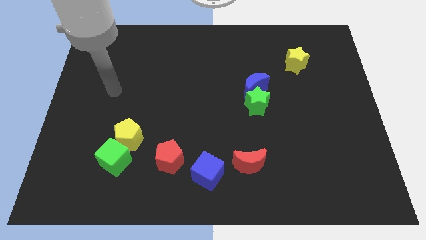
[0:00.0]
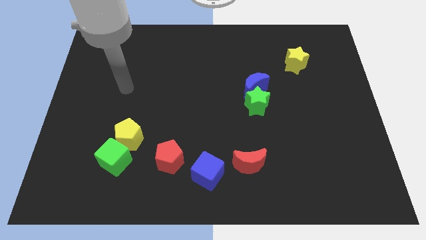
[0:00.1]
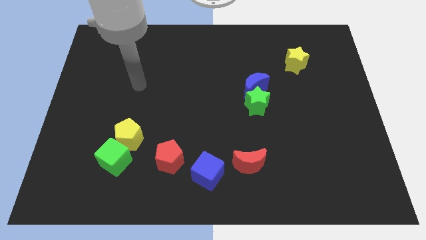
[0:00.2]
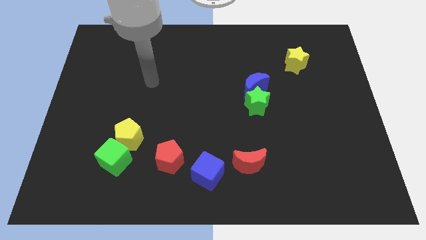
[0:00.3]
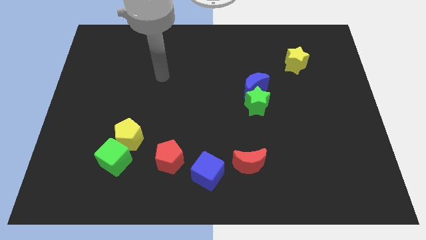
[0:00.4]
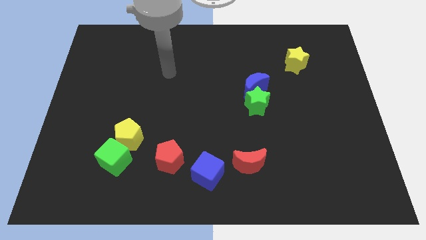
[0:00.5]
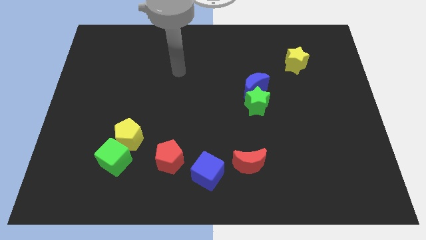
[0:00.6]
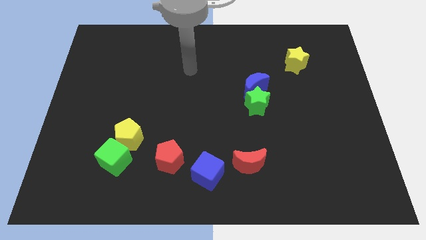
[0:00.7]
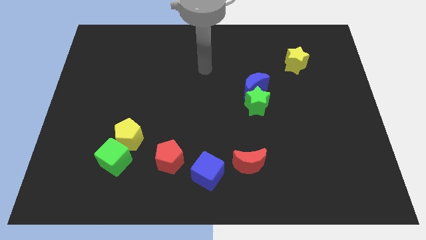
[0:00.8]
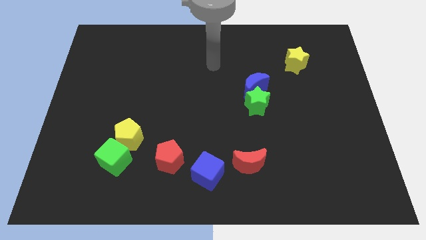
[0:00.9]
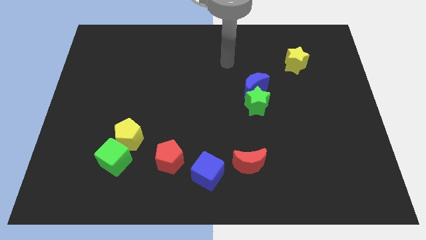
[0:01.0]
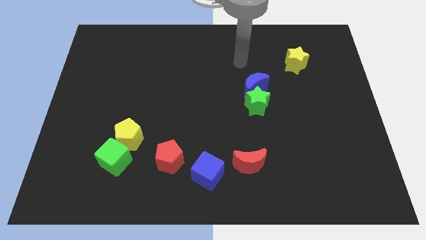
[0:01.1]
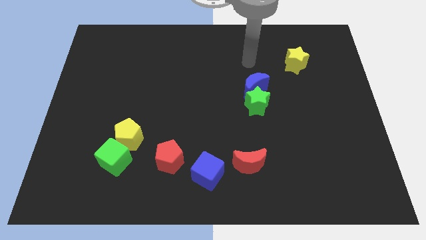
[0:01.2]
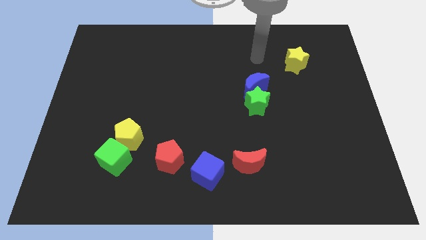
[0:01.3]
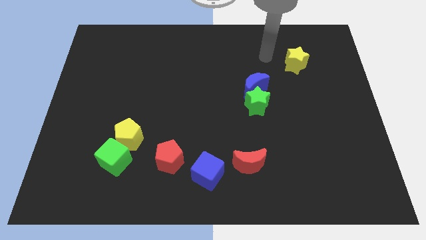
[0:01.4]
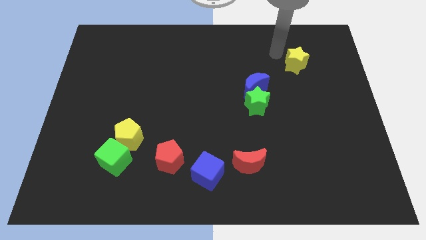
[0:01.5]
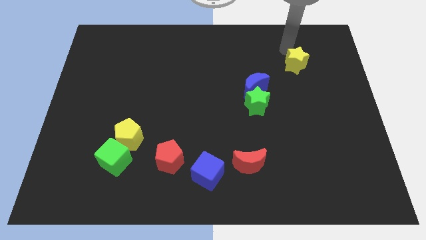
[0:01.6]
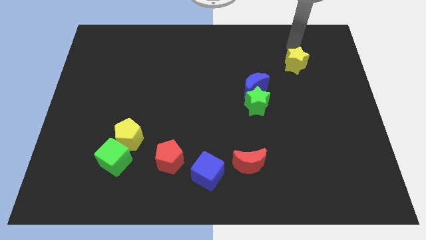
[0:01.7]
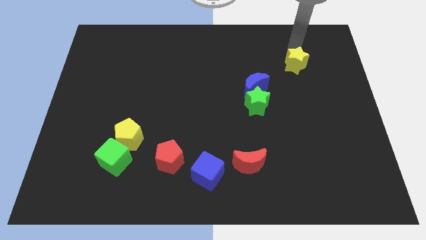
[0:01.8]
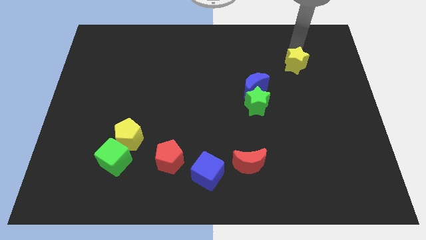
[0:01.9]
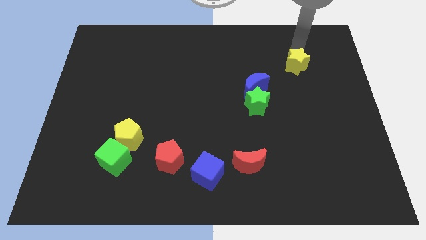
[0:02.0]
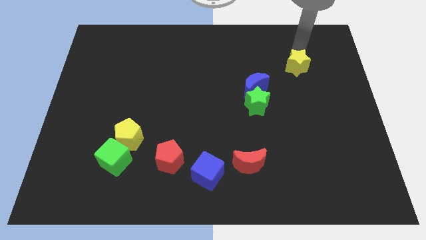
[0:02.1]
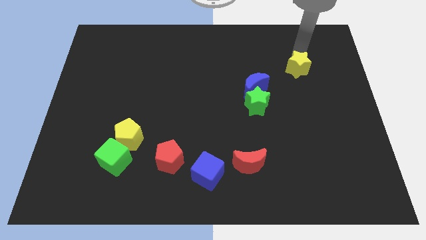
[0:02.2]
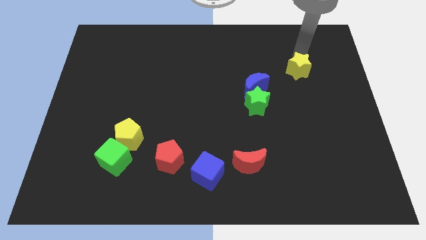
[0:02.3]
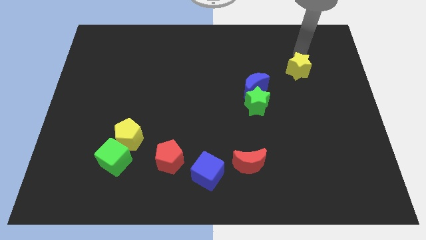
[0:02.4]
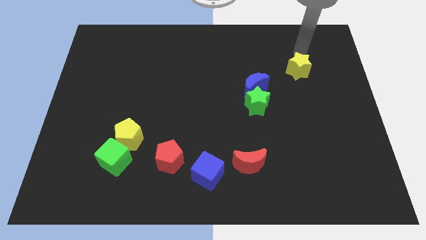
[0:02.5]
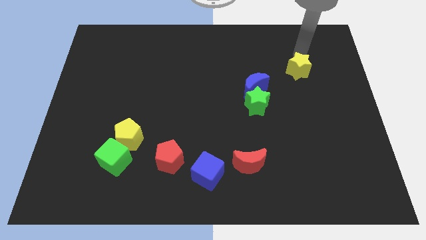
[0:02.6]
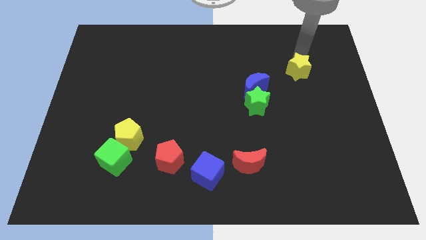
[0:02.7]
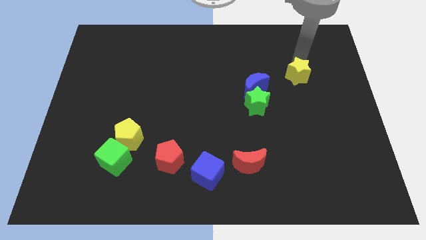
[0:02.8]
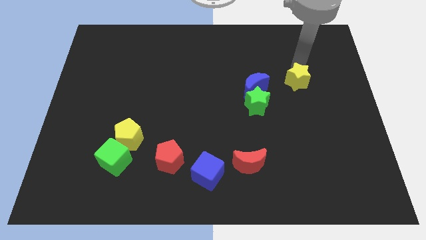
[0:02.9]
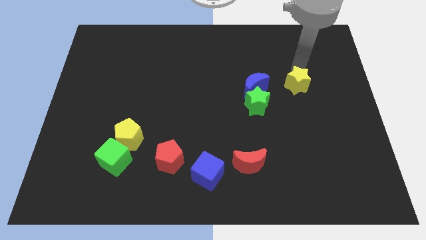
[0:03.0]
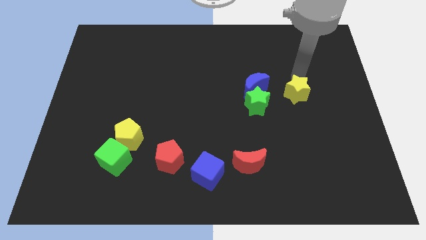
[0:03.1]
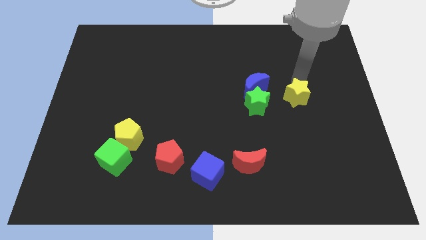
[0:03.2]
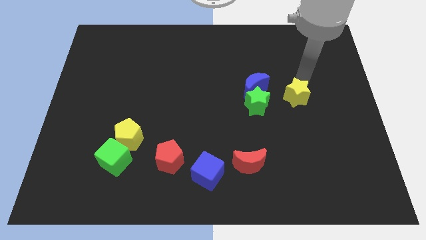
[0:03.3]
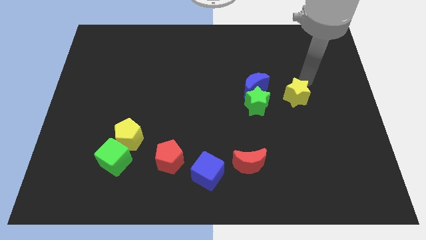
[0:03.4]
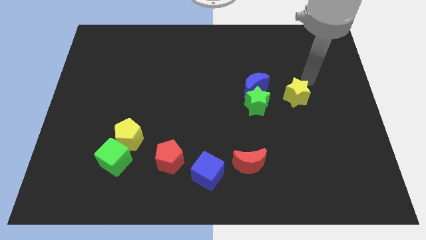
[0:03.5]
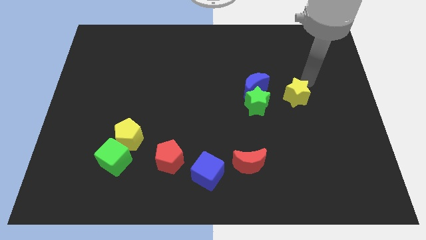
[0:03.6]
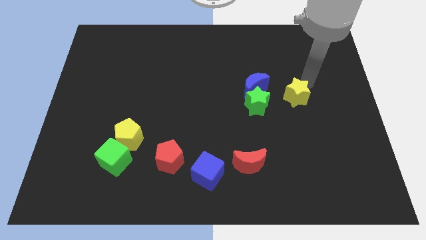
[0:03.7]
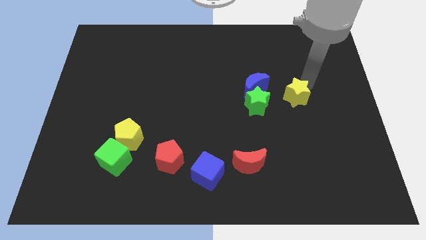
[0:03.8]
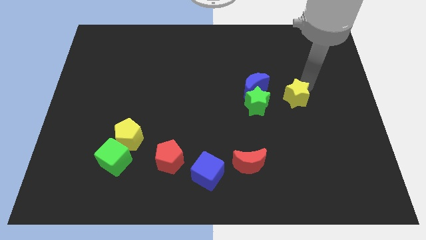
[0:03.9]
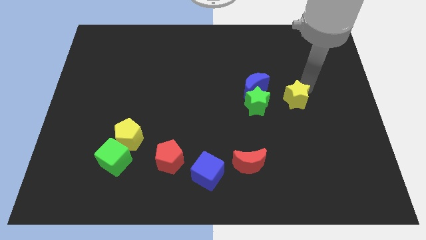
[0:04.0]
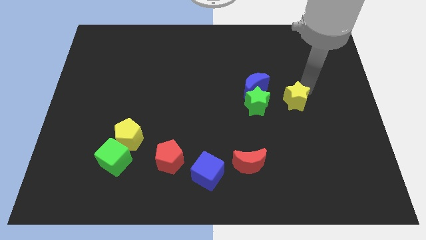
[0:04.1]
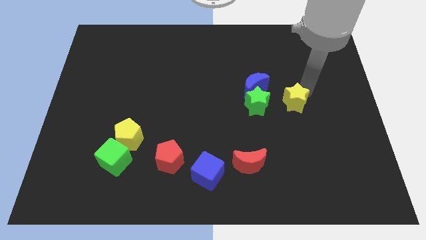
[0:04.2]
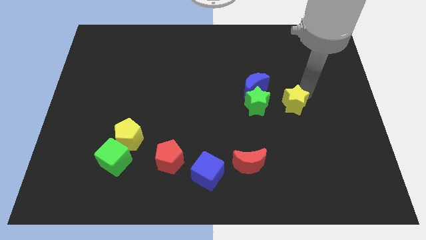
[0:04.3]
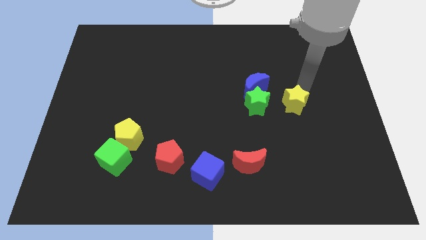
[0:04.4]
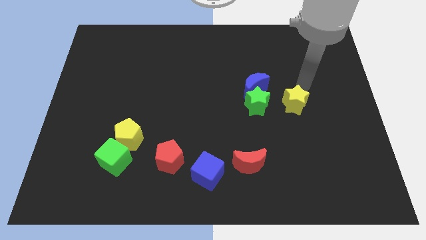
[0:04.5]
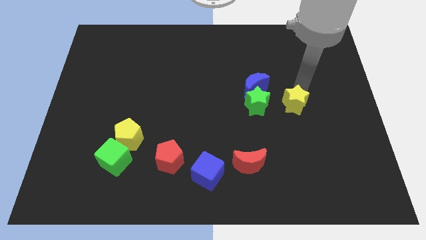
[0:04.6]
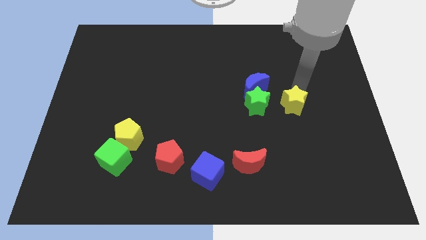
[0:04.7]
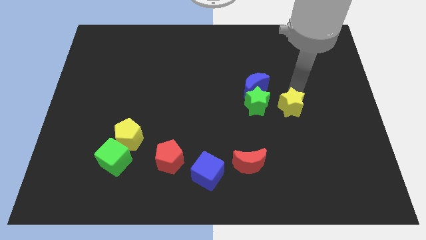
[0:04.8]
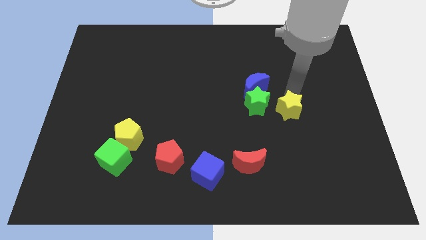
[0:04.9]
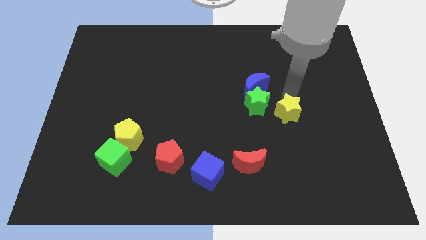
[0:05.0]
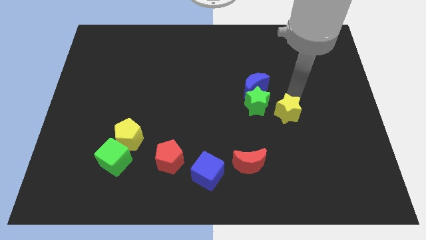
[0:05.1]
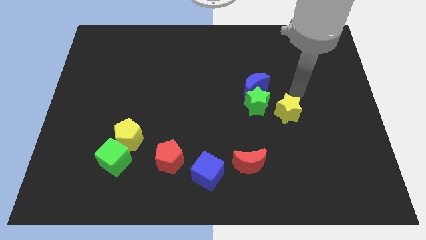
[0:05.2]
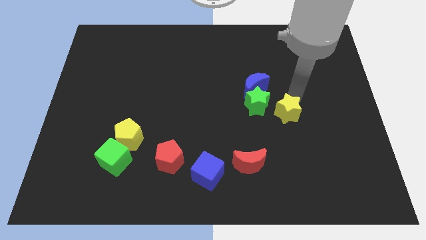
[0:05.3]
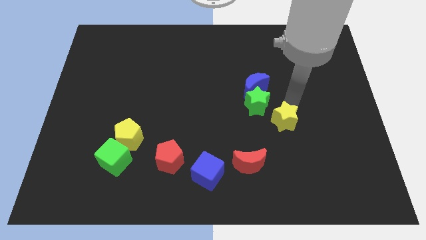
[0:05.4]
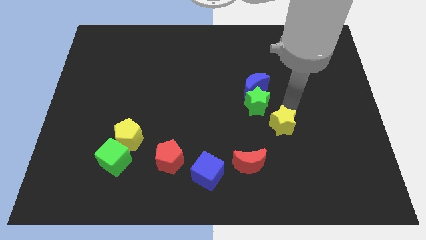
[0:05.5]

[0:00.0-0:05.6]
put the yellow star to the top right side of the red moon

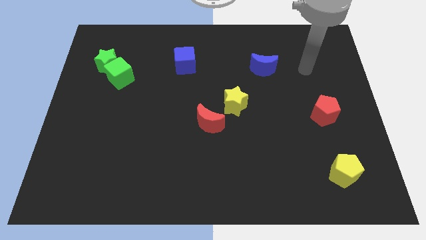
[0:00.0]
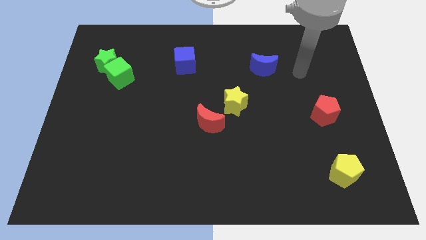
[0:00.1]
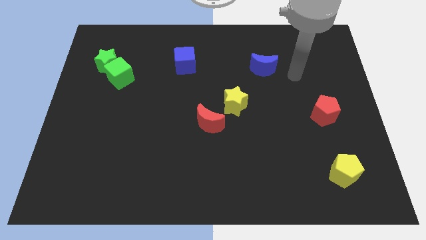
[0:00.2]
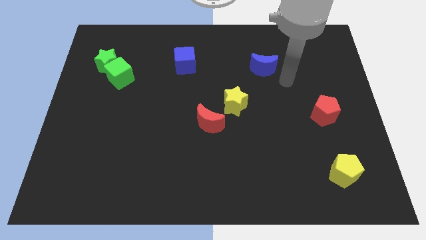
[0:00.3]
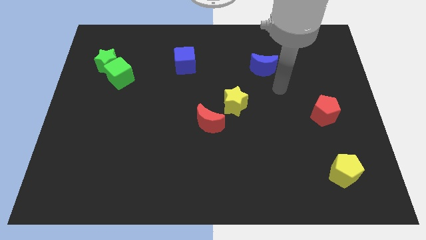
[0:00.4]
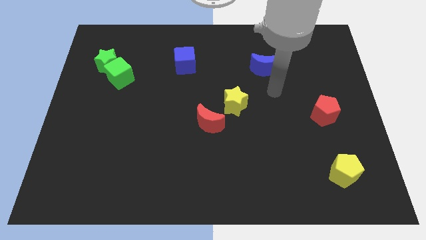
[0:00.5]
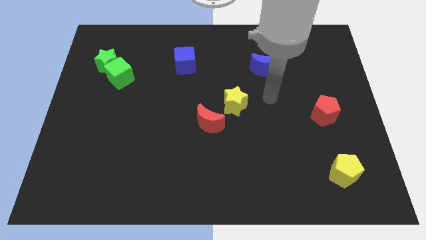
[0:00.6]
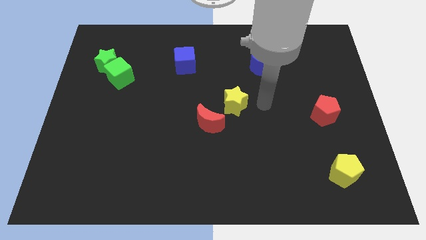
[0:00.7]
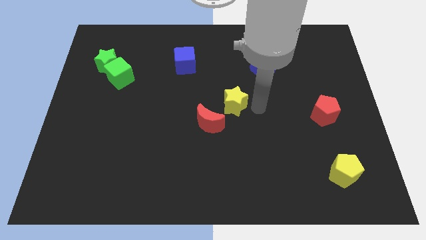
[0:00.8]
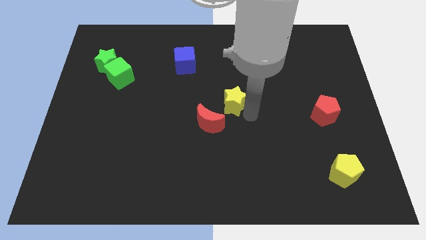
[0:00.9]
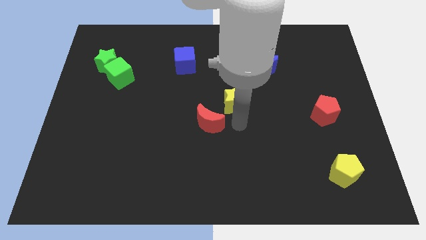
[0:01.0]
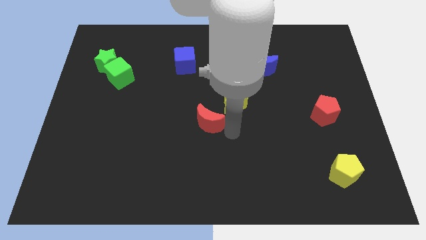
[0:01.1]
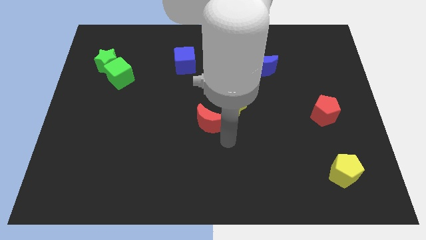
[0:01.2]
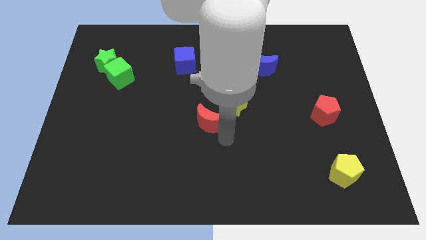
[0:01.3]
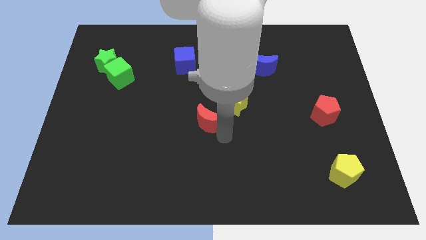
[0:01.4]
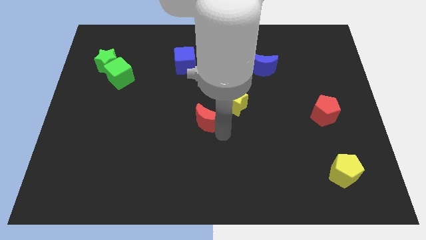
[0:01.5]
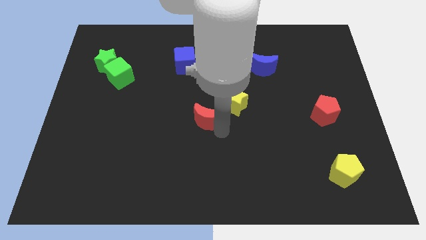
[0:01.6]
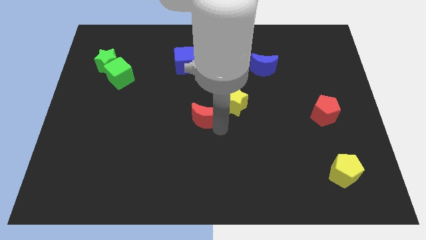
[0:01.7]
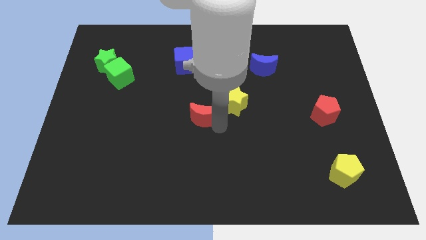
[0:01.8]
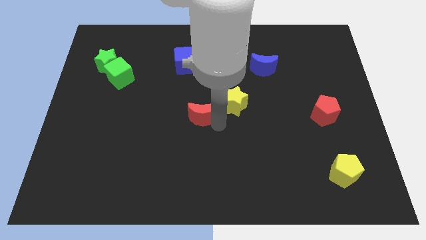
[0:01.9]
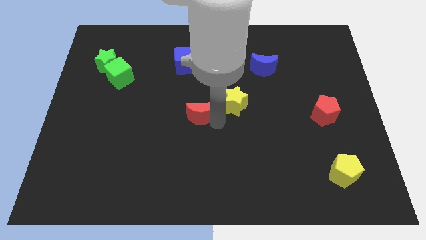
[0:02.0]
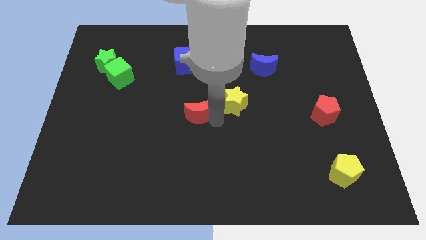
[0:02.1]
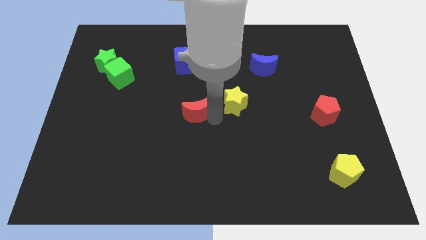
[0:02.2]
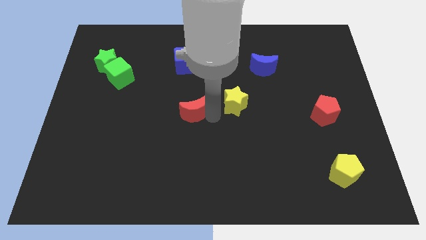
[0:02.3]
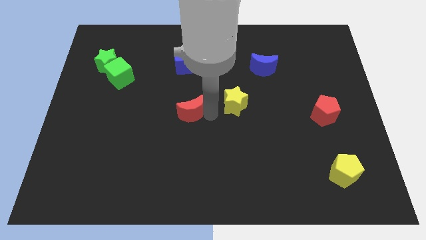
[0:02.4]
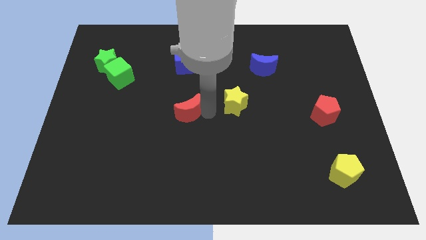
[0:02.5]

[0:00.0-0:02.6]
slide the red moon to the bottom side of the blue cube
